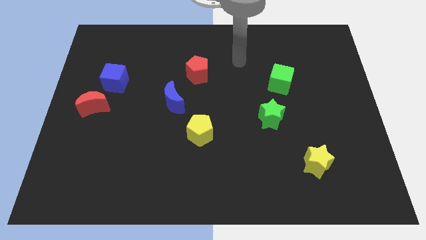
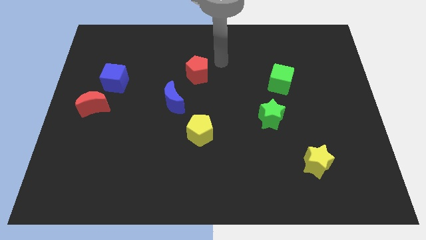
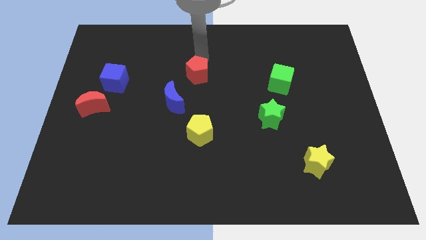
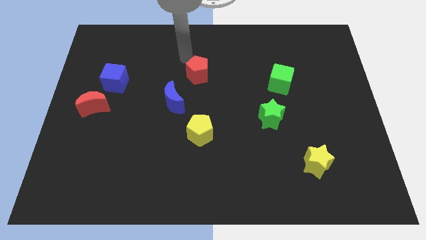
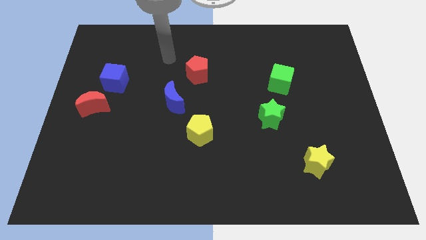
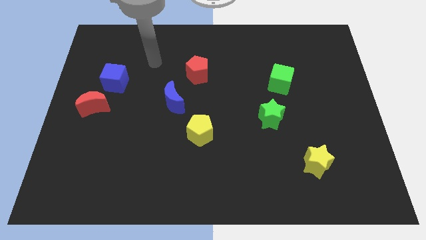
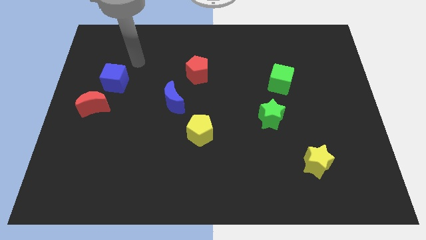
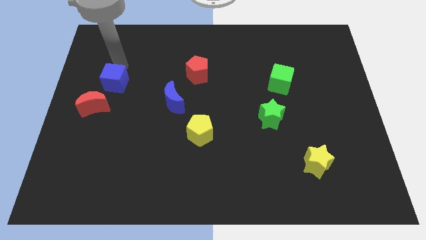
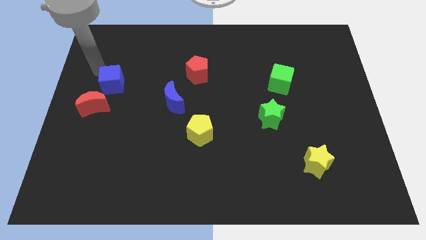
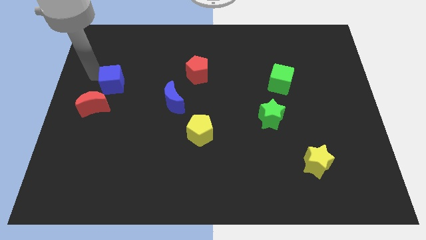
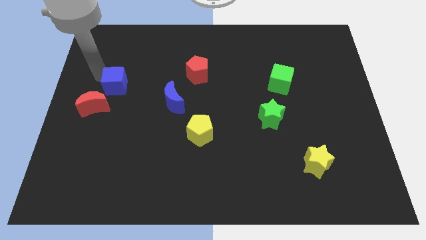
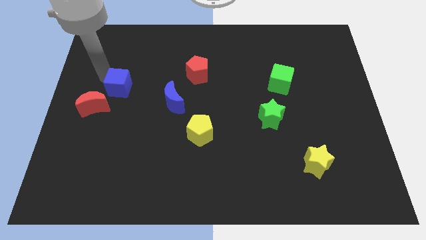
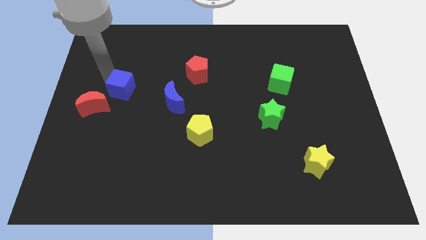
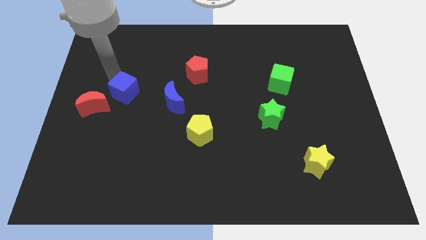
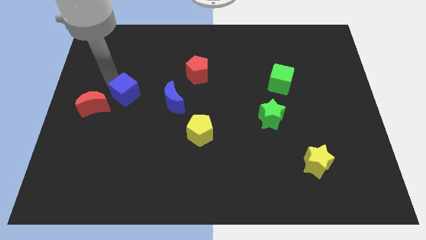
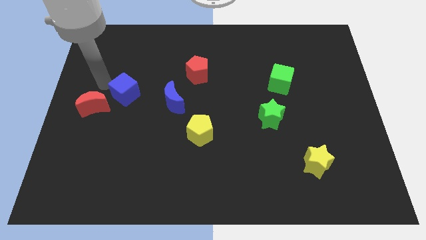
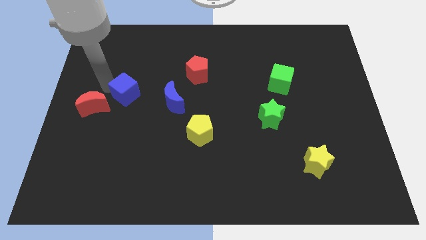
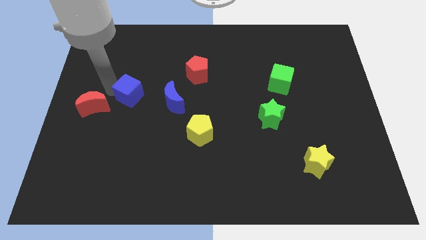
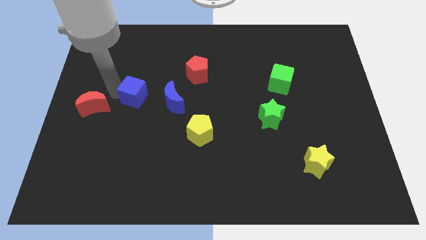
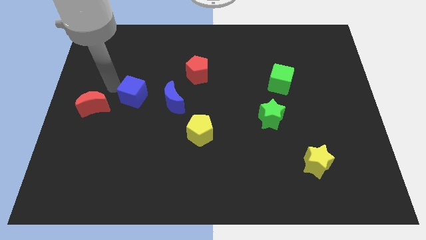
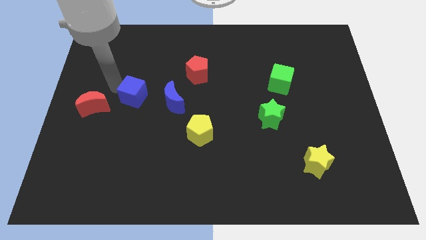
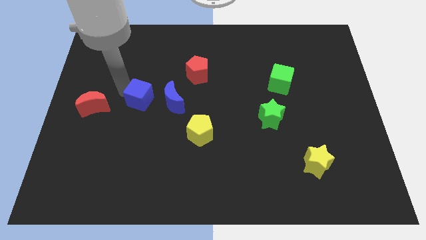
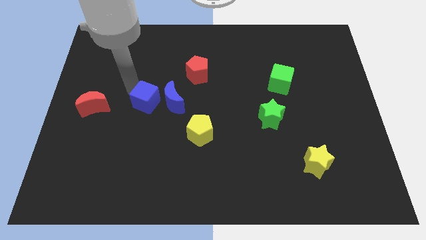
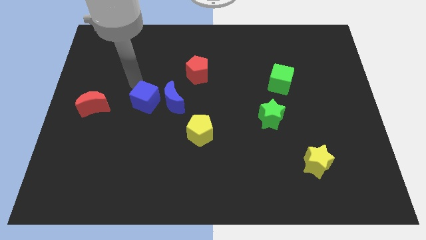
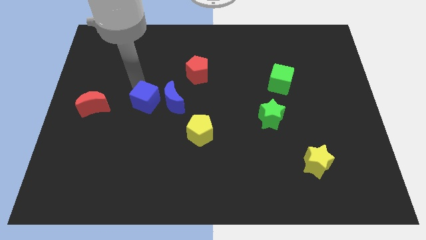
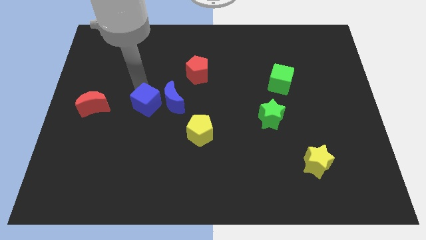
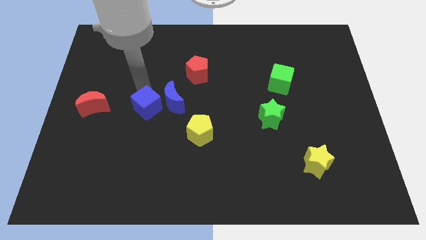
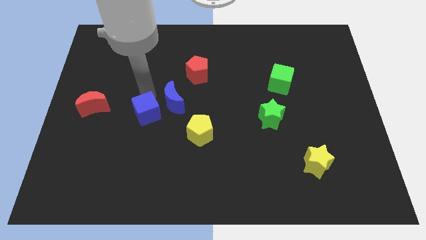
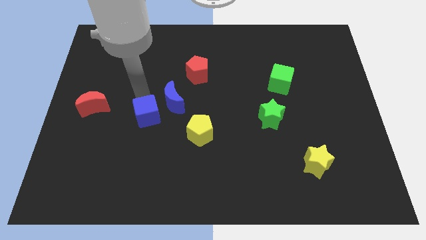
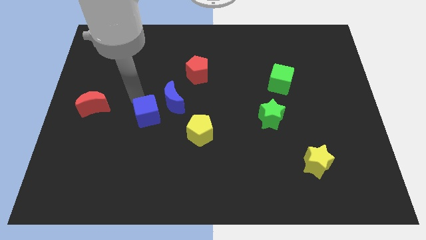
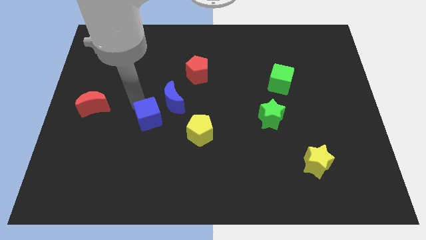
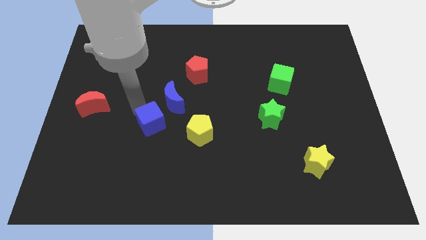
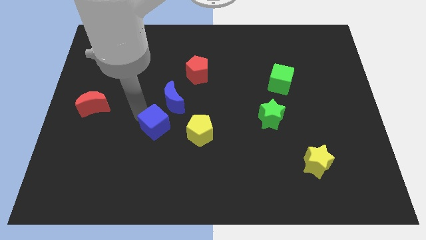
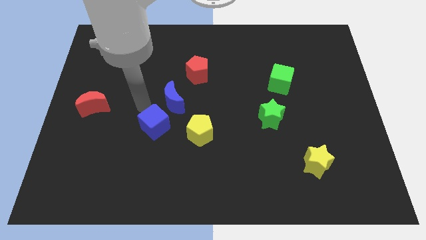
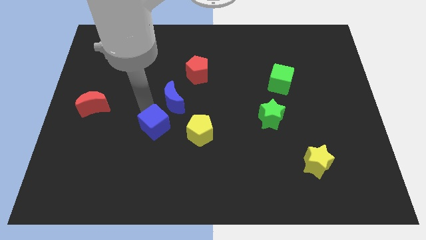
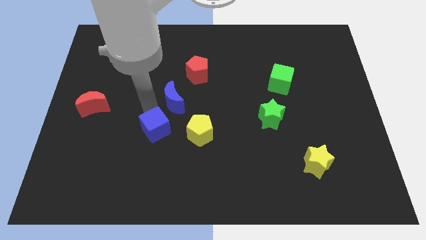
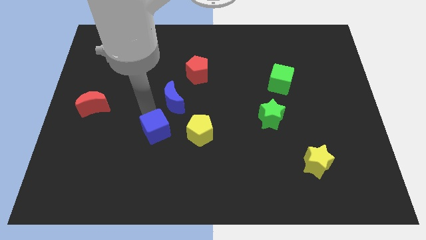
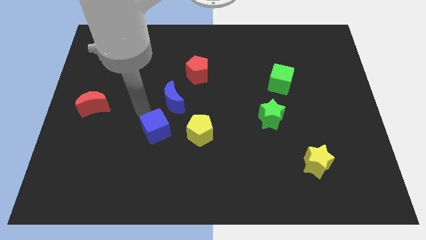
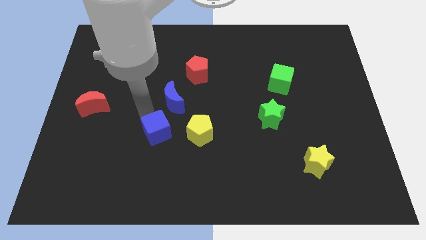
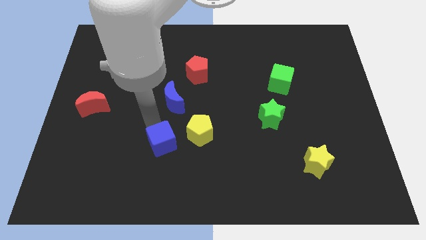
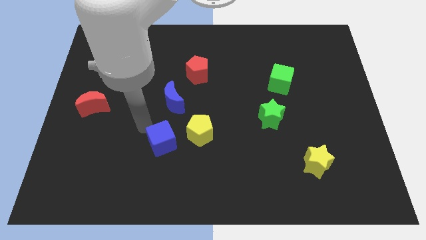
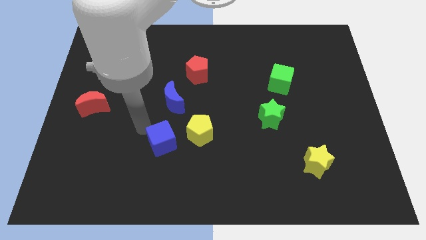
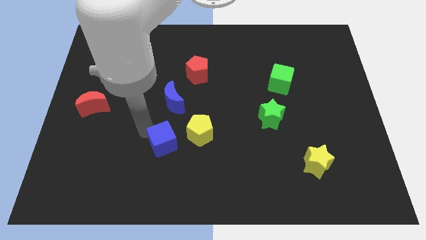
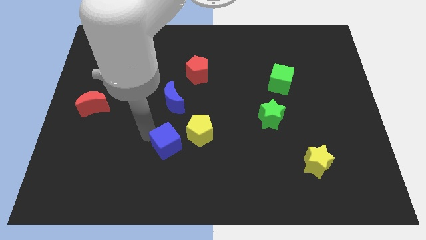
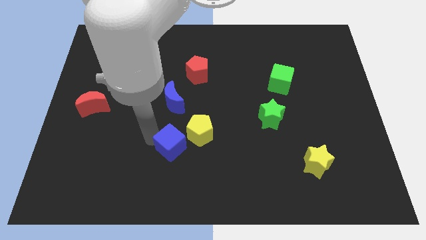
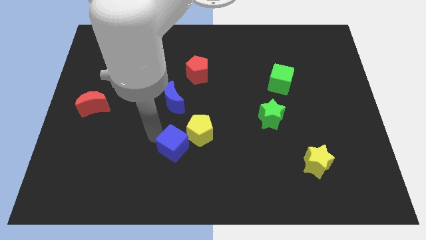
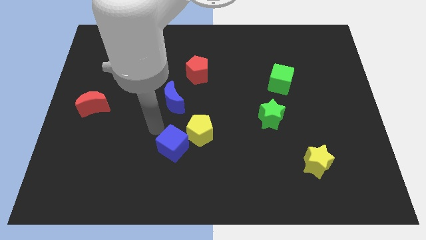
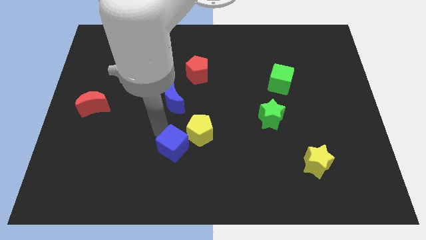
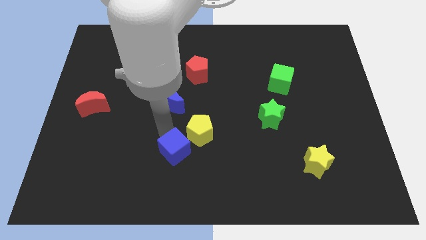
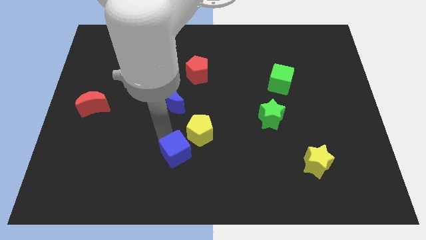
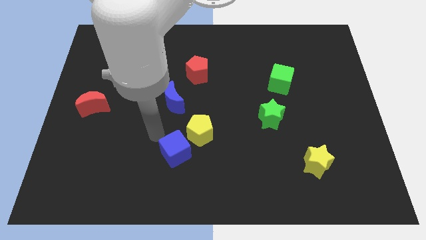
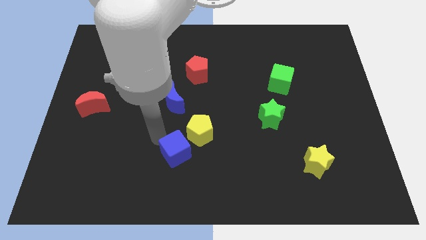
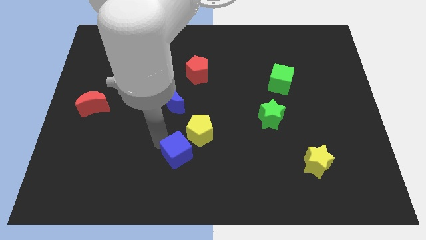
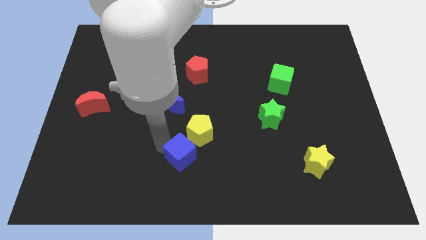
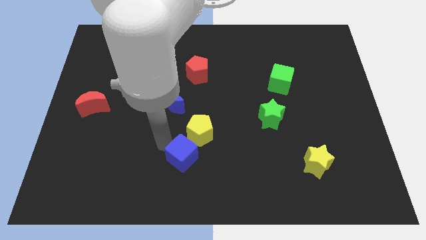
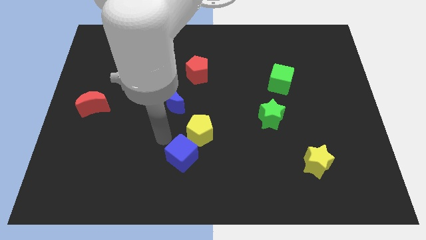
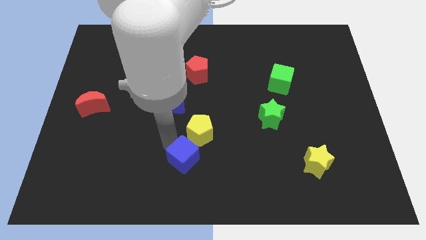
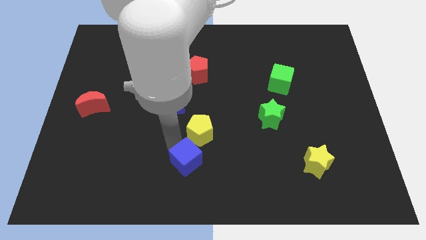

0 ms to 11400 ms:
slide the blue cube to the bottom

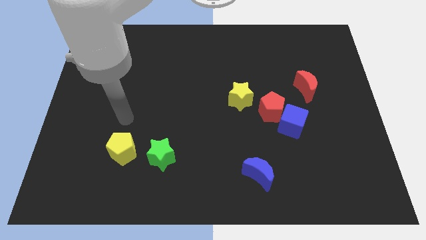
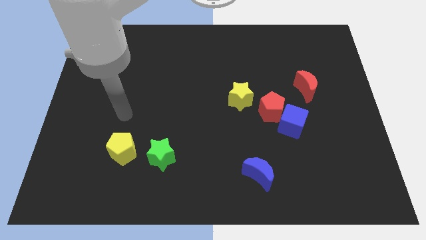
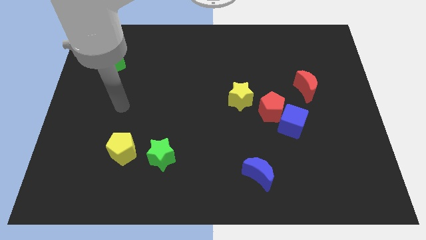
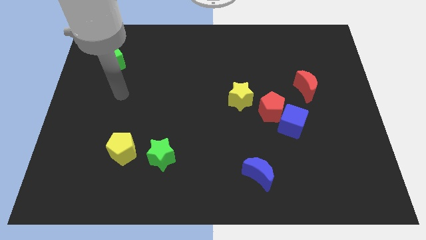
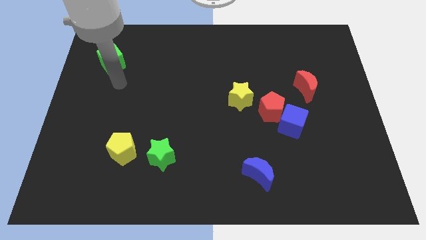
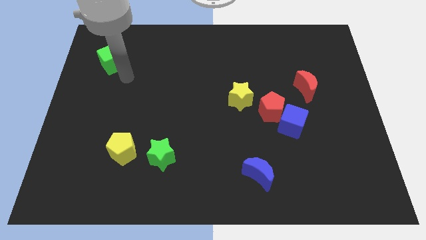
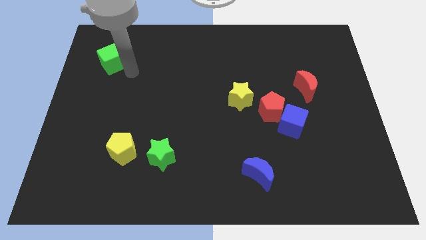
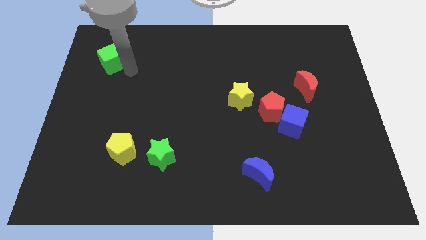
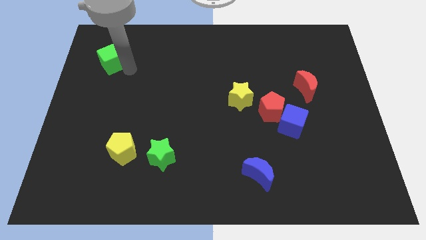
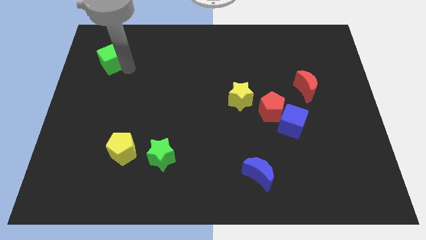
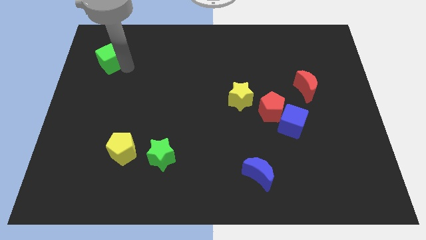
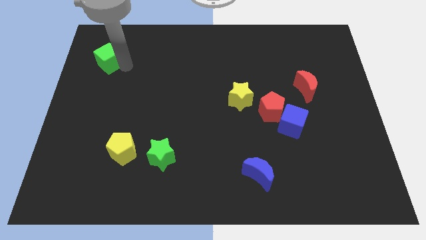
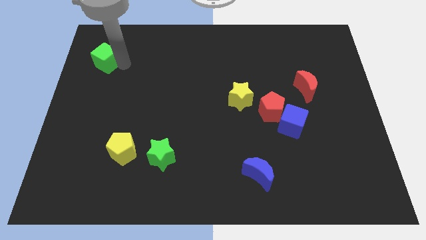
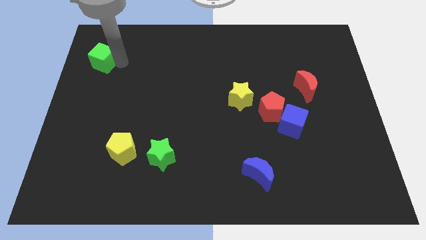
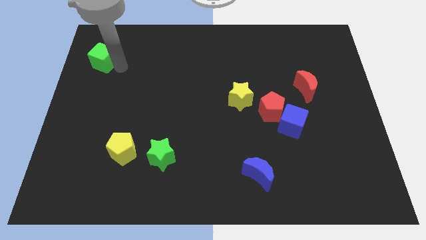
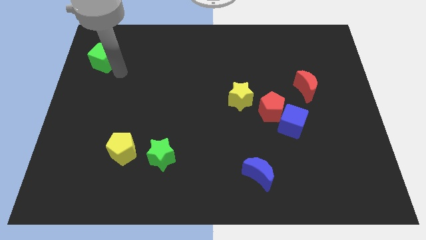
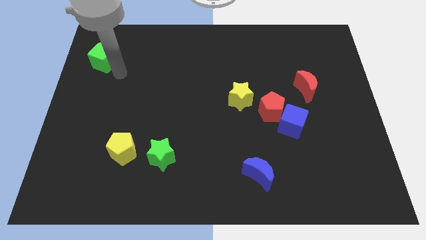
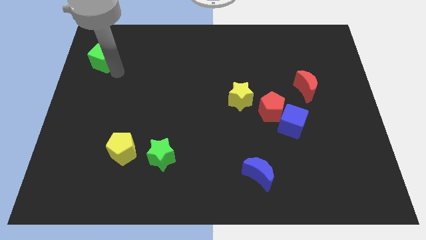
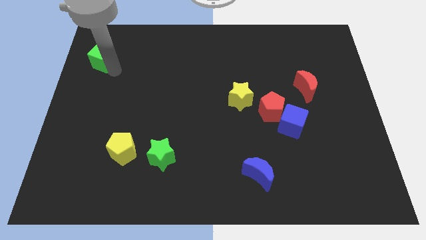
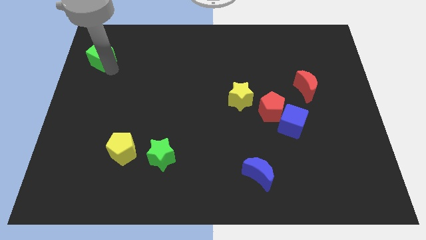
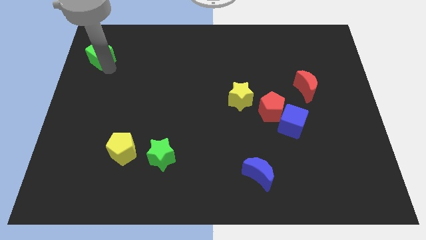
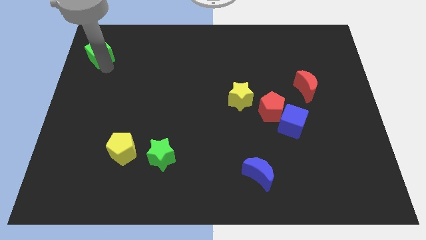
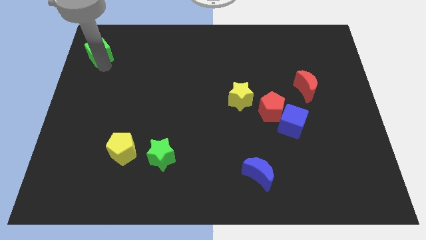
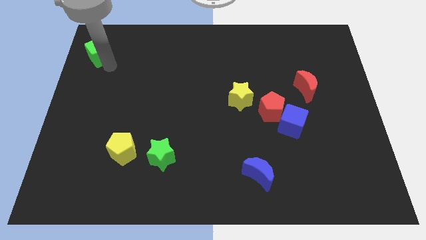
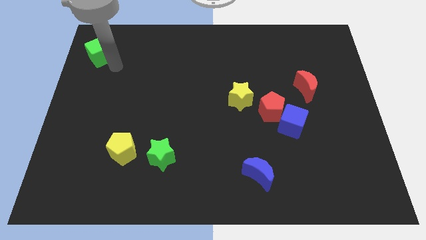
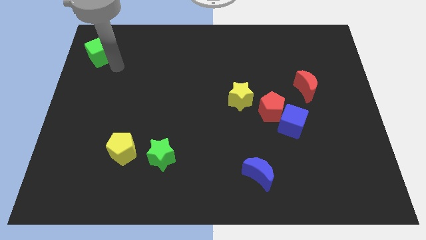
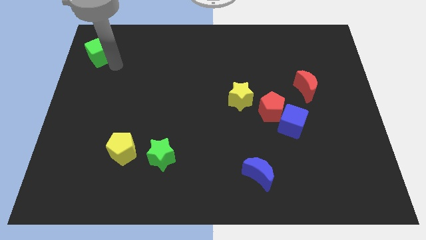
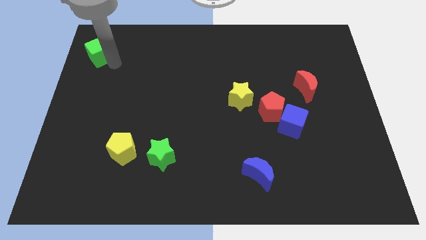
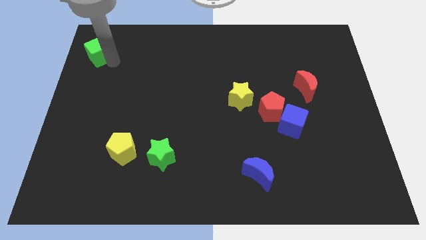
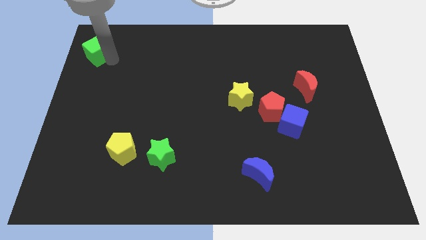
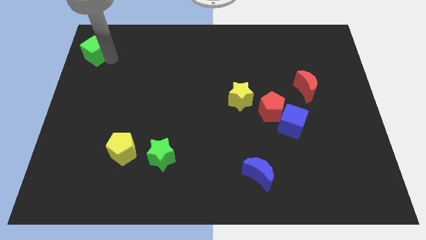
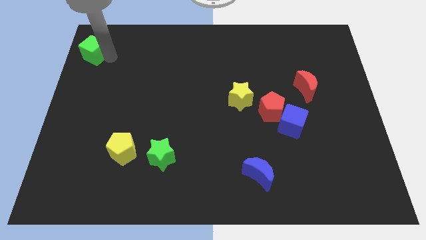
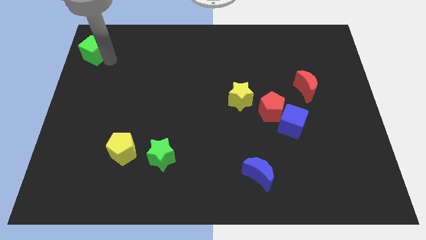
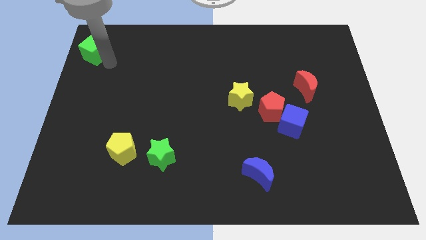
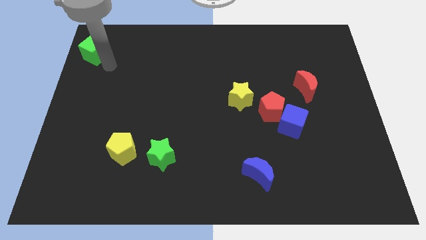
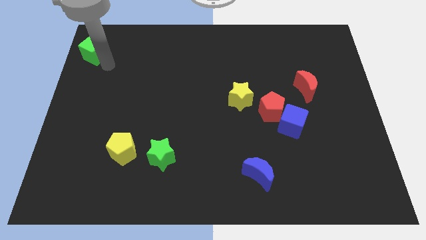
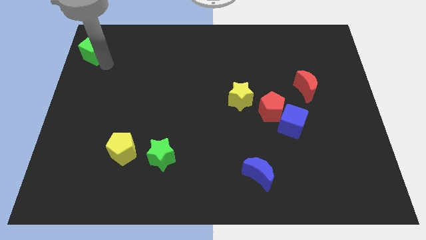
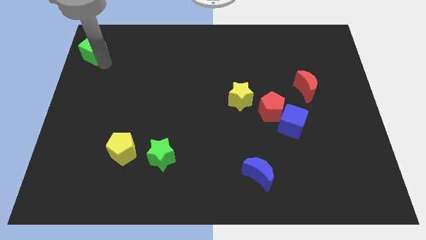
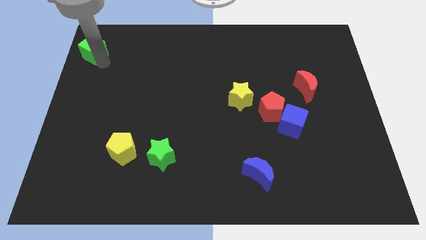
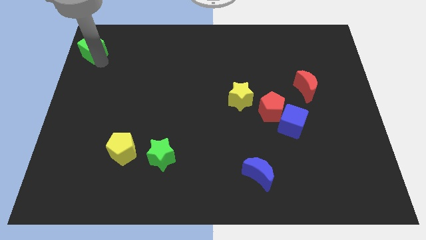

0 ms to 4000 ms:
slide the green cube to the top left corner
